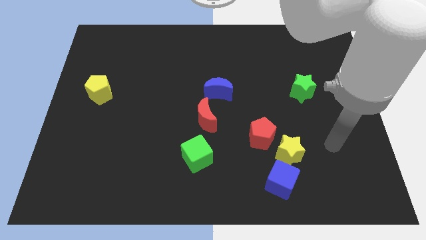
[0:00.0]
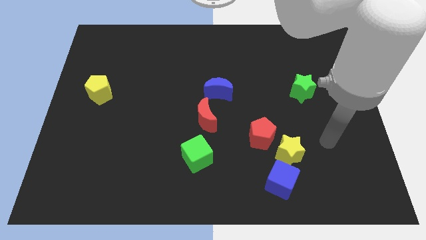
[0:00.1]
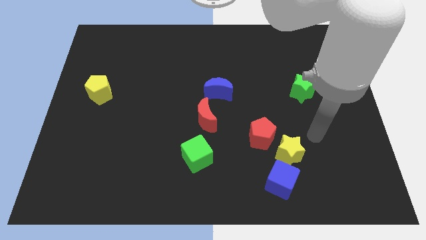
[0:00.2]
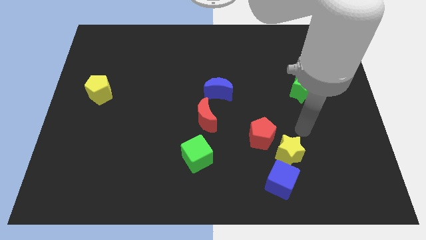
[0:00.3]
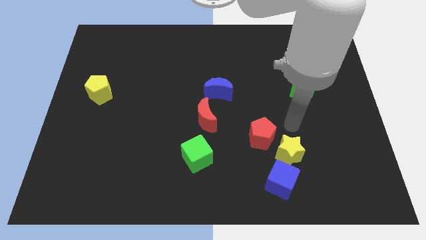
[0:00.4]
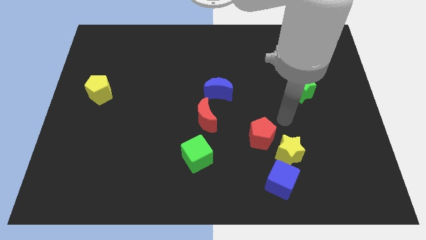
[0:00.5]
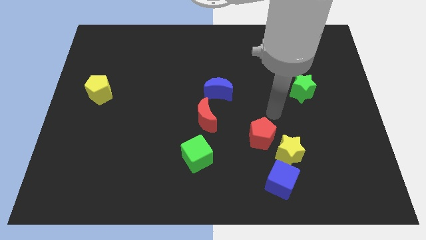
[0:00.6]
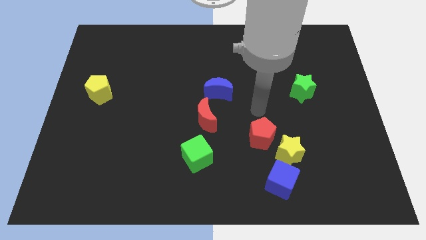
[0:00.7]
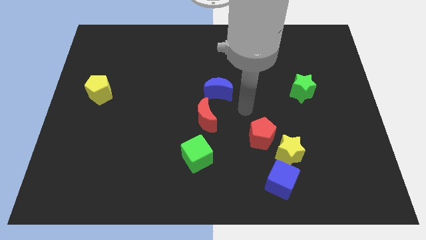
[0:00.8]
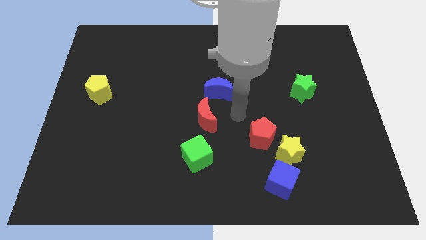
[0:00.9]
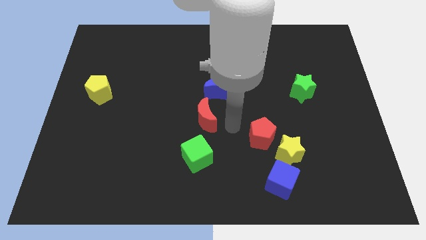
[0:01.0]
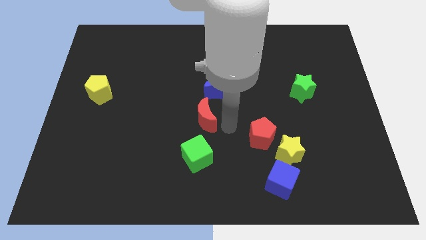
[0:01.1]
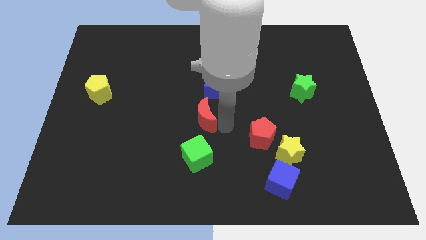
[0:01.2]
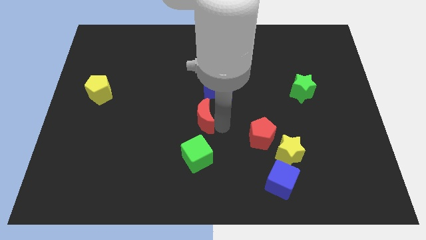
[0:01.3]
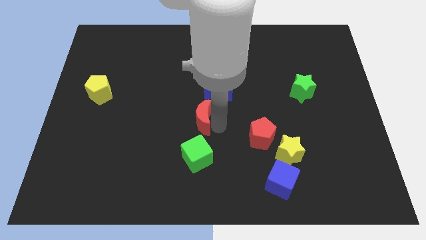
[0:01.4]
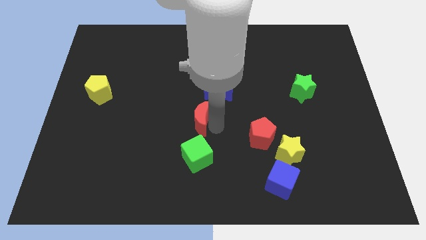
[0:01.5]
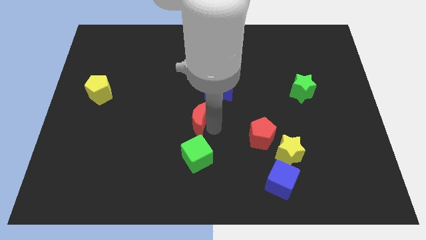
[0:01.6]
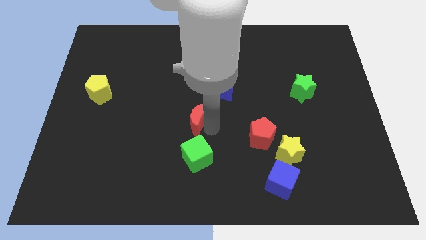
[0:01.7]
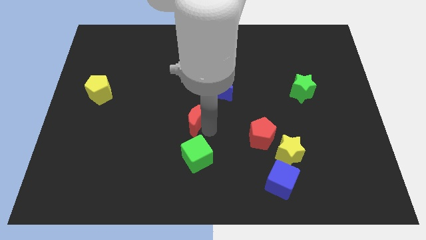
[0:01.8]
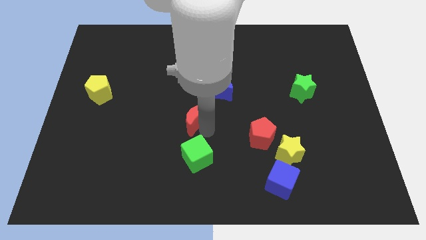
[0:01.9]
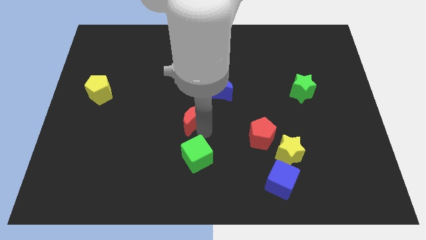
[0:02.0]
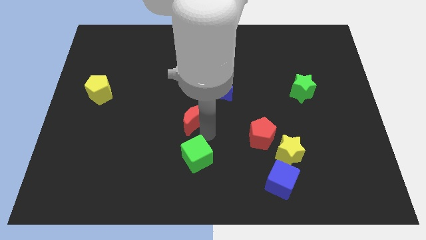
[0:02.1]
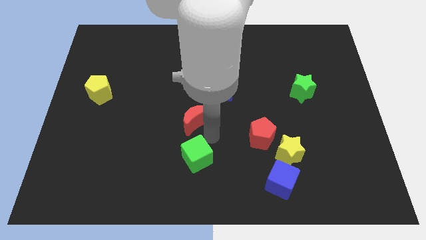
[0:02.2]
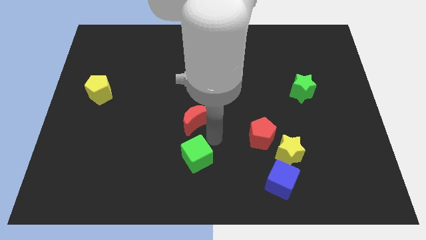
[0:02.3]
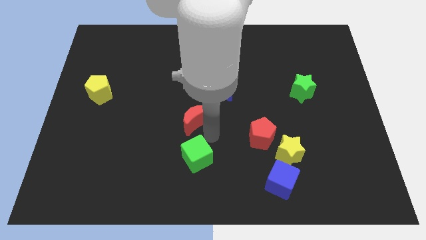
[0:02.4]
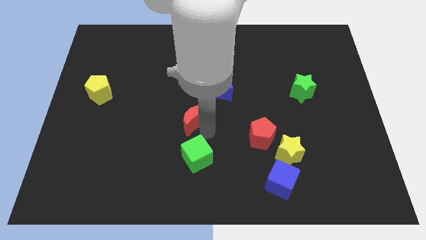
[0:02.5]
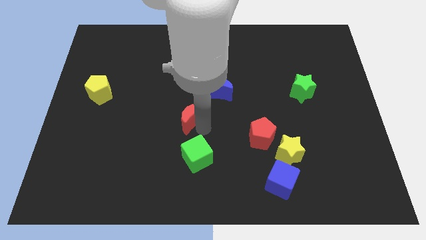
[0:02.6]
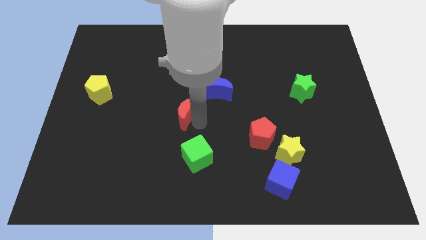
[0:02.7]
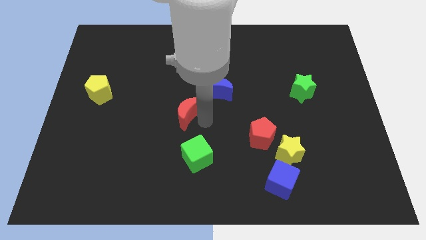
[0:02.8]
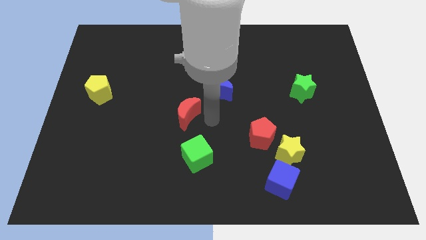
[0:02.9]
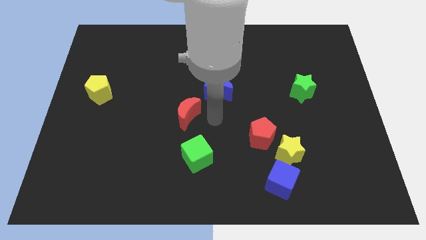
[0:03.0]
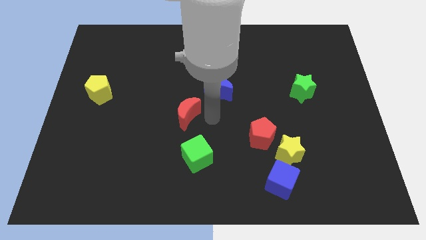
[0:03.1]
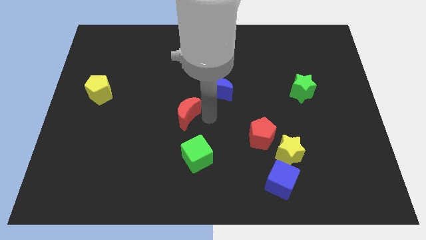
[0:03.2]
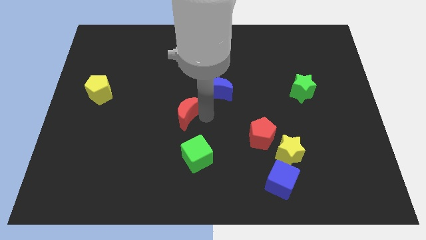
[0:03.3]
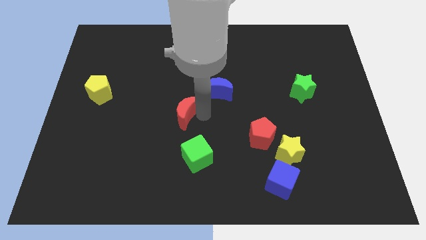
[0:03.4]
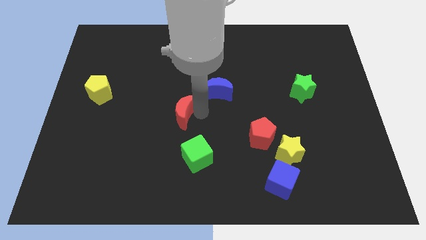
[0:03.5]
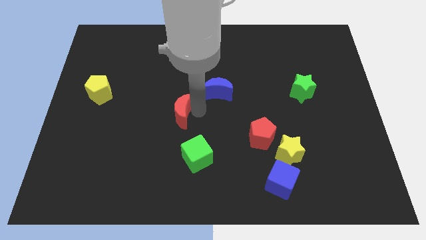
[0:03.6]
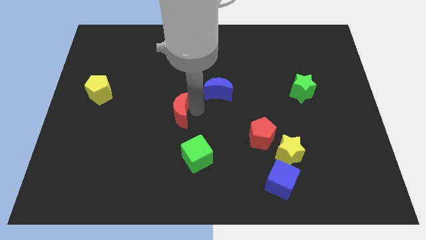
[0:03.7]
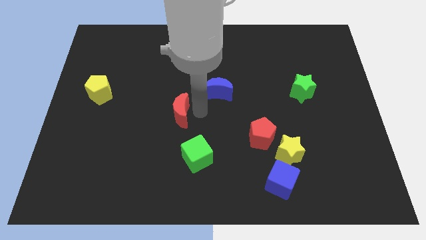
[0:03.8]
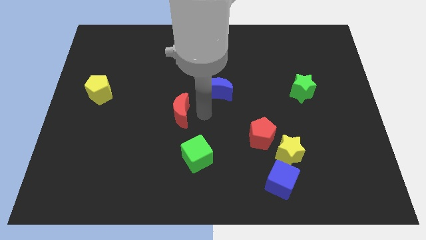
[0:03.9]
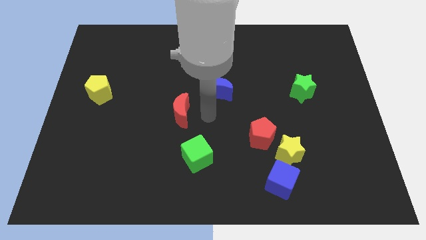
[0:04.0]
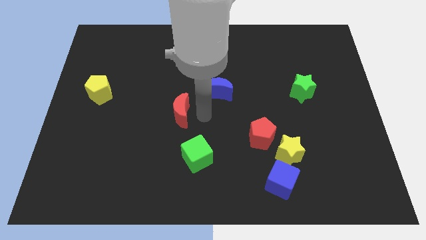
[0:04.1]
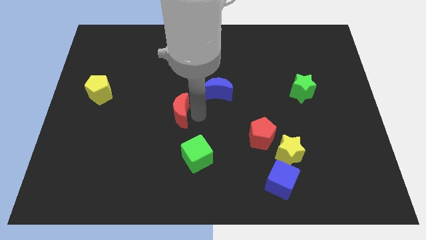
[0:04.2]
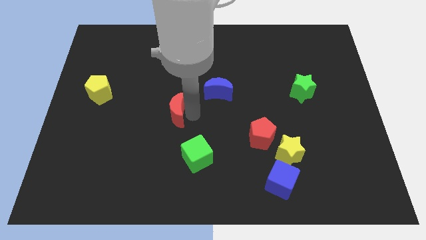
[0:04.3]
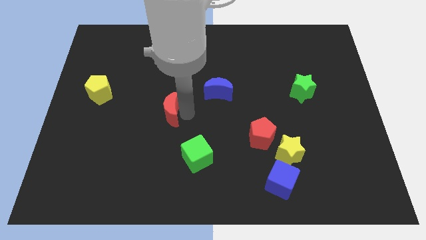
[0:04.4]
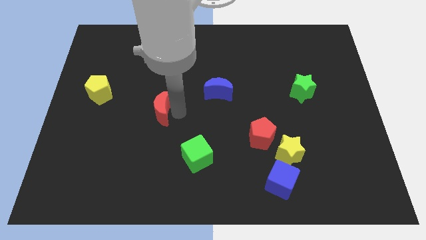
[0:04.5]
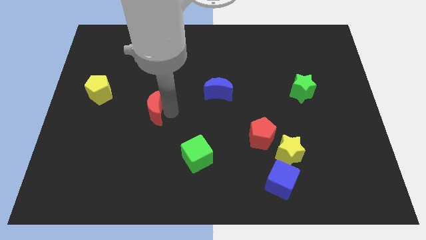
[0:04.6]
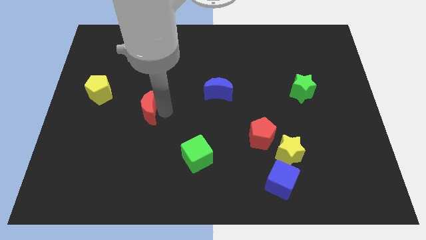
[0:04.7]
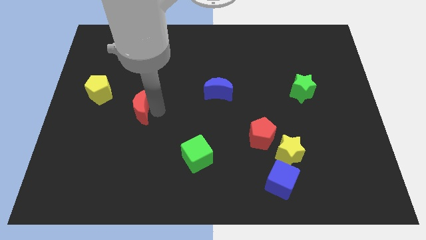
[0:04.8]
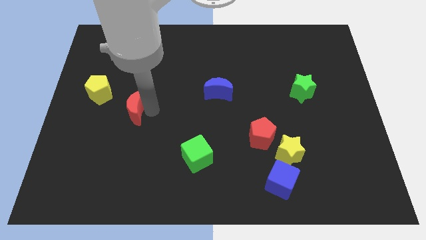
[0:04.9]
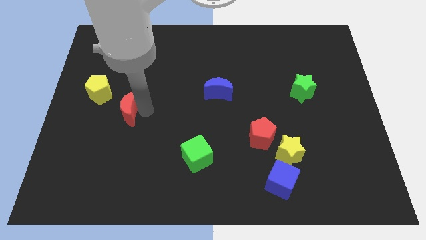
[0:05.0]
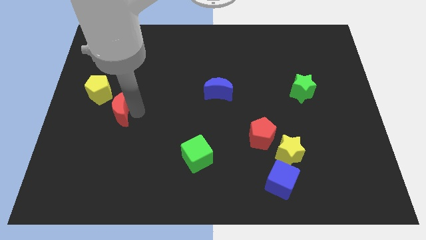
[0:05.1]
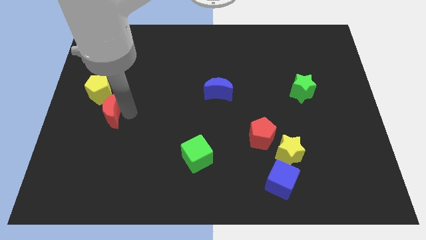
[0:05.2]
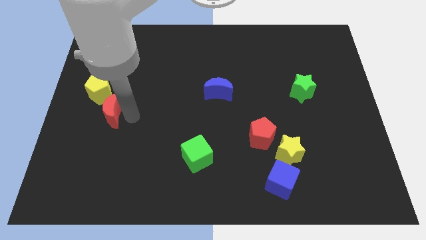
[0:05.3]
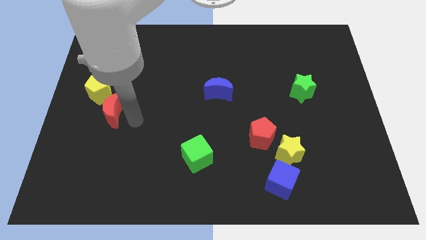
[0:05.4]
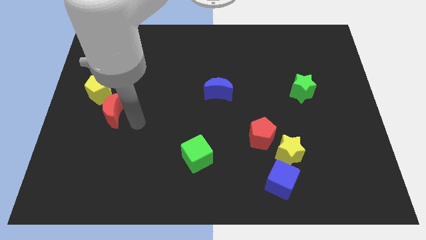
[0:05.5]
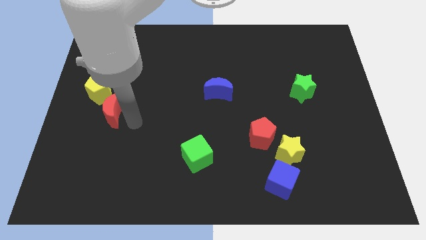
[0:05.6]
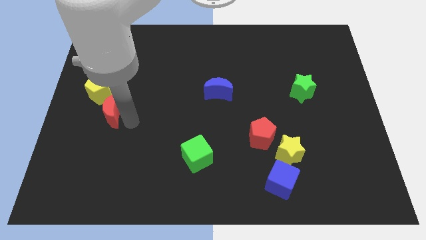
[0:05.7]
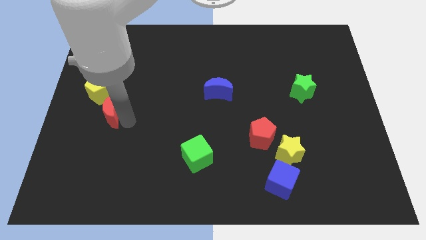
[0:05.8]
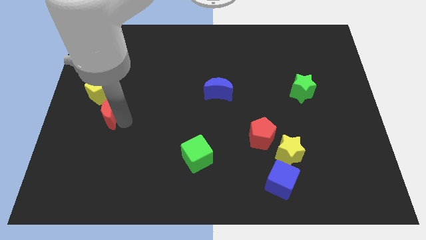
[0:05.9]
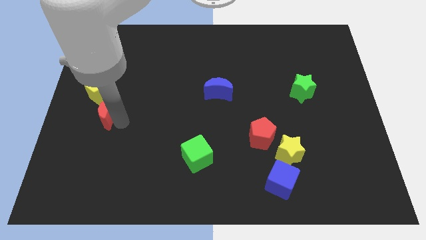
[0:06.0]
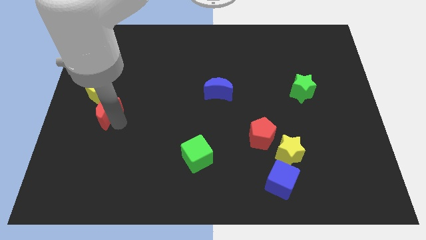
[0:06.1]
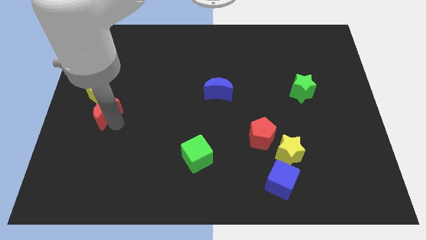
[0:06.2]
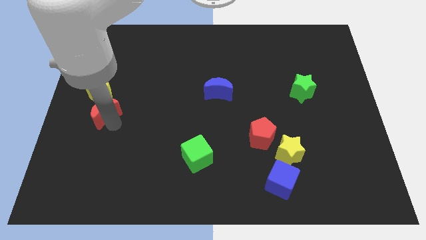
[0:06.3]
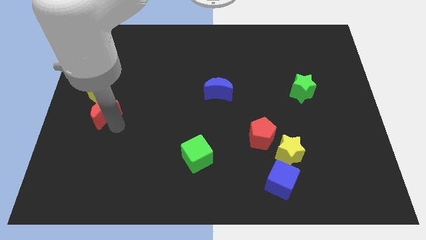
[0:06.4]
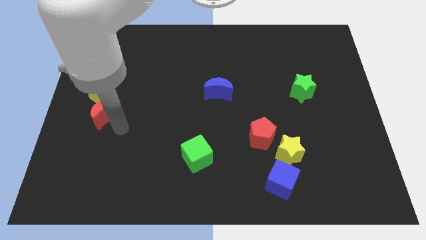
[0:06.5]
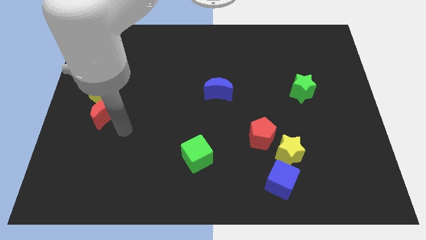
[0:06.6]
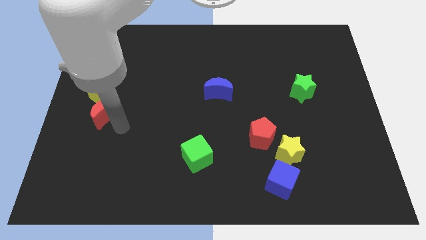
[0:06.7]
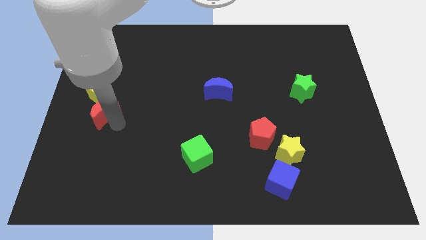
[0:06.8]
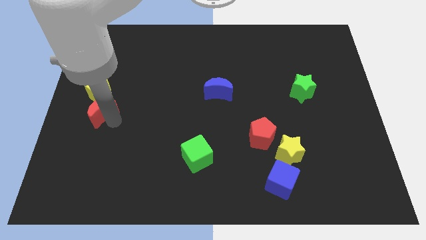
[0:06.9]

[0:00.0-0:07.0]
move the red moon to the left side of the board
